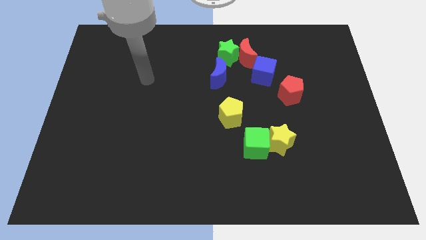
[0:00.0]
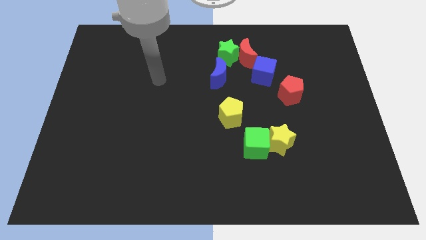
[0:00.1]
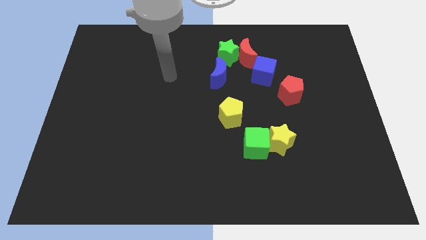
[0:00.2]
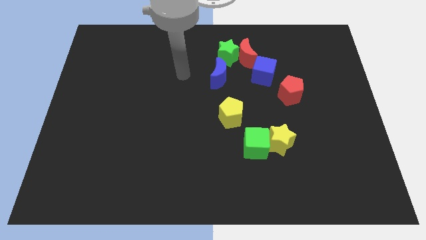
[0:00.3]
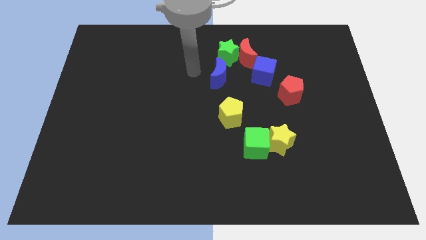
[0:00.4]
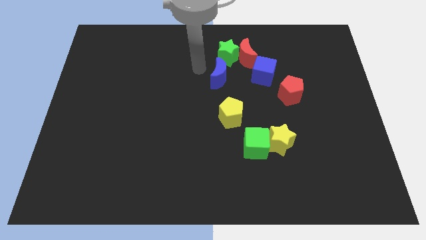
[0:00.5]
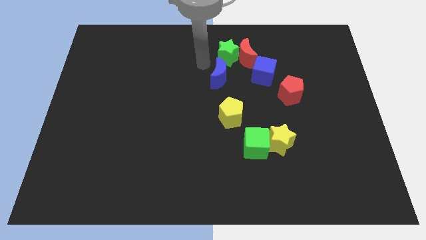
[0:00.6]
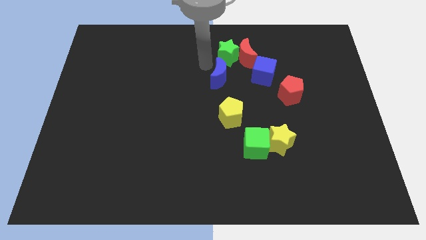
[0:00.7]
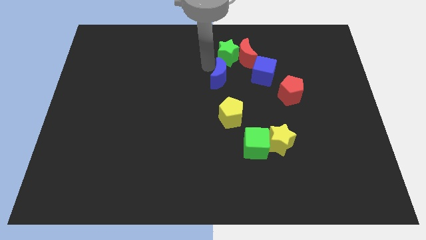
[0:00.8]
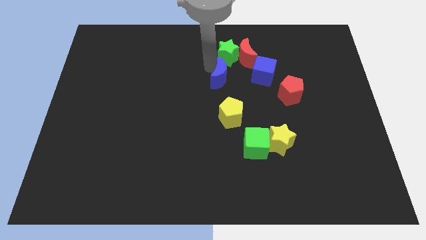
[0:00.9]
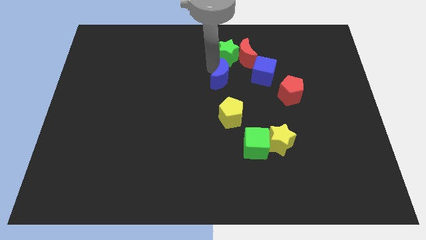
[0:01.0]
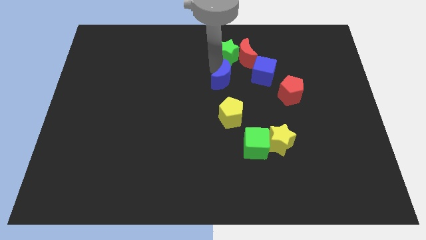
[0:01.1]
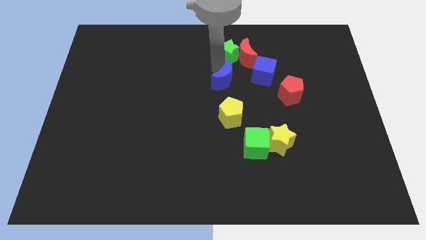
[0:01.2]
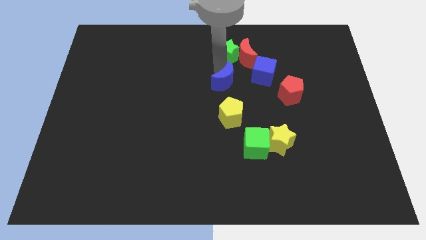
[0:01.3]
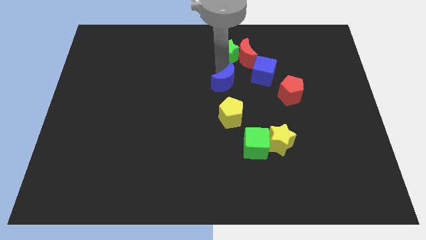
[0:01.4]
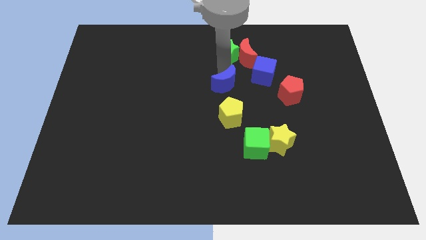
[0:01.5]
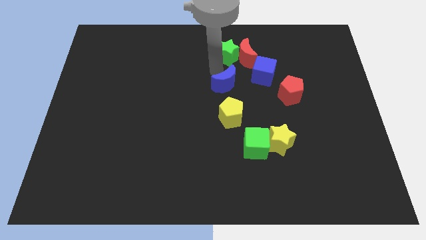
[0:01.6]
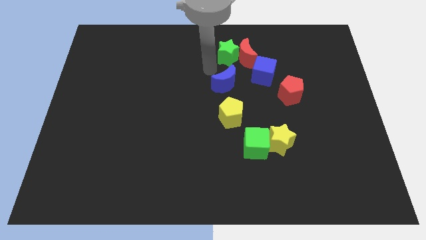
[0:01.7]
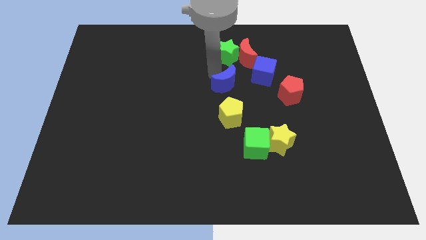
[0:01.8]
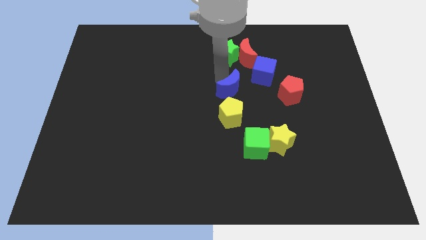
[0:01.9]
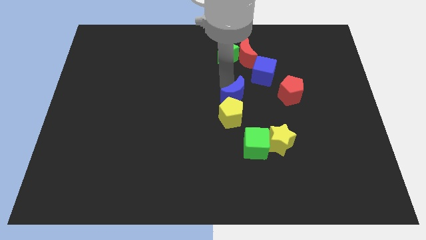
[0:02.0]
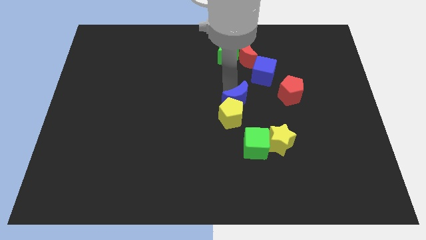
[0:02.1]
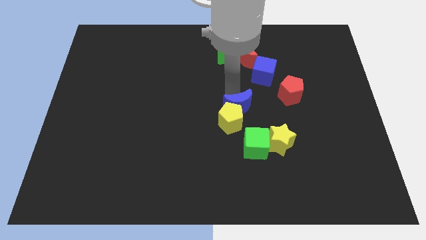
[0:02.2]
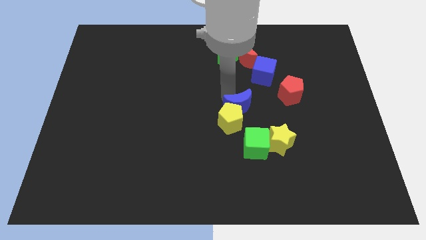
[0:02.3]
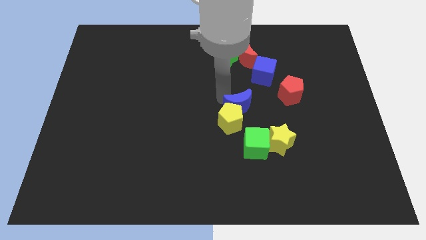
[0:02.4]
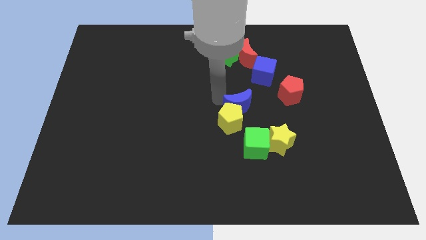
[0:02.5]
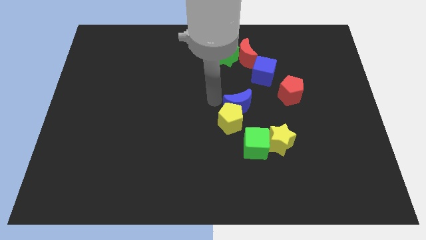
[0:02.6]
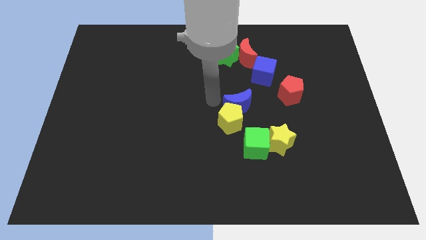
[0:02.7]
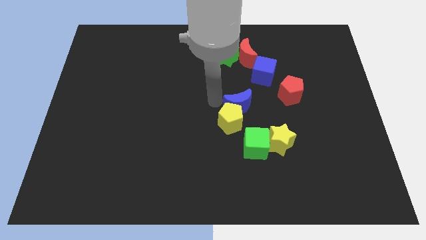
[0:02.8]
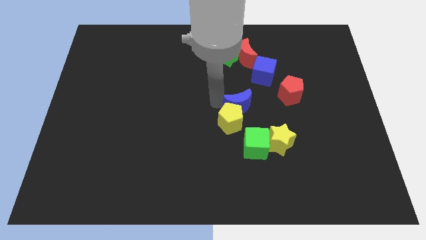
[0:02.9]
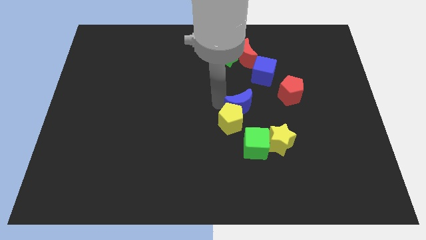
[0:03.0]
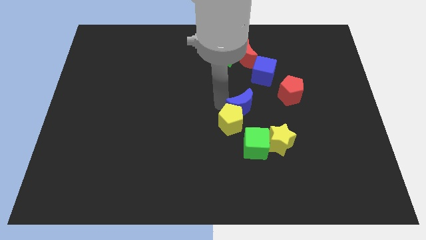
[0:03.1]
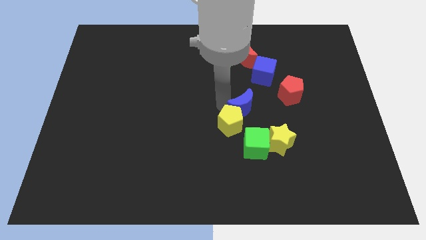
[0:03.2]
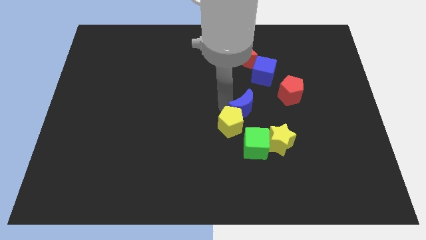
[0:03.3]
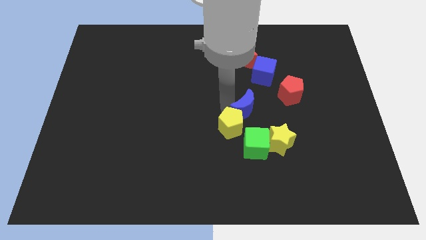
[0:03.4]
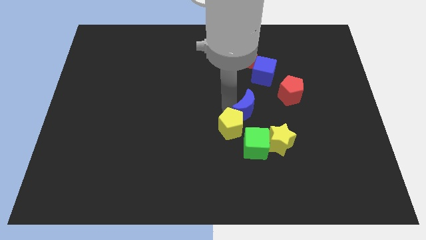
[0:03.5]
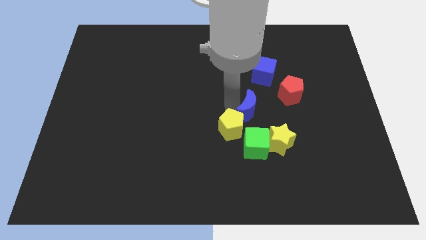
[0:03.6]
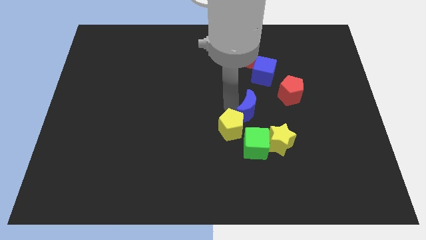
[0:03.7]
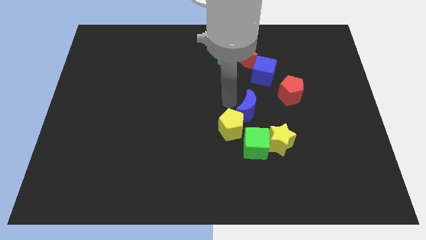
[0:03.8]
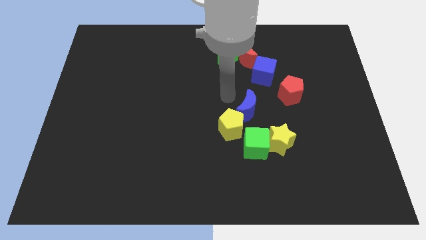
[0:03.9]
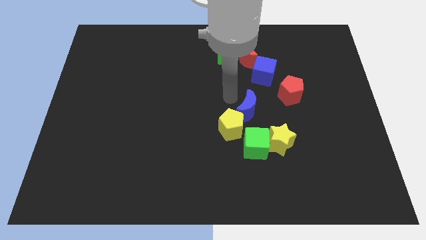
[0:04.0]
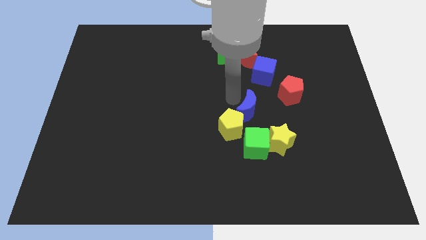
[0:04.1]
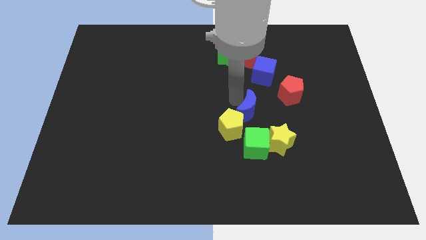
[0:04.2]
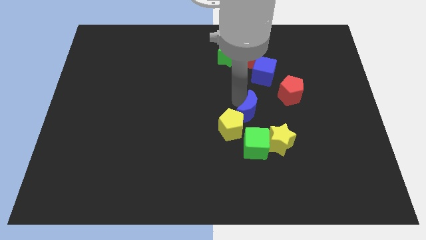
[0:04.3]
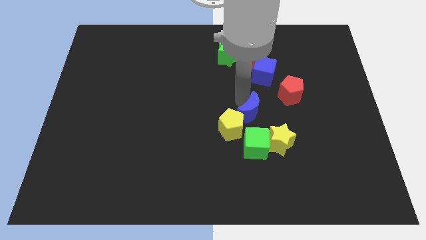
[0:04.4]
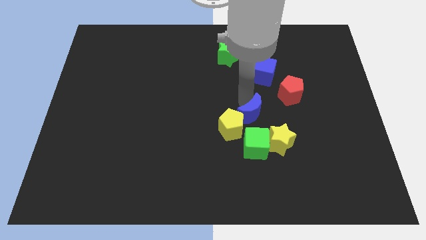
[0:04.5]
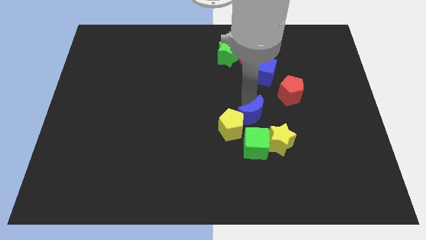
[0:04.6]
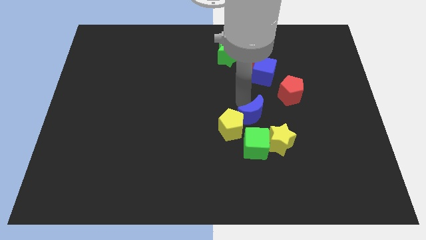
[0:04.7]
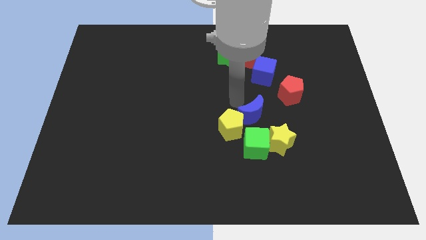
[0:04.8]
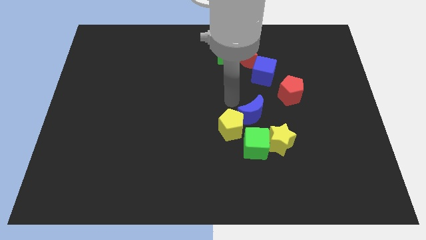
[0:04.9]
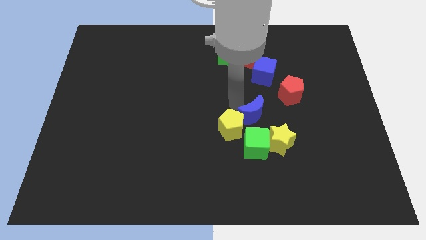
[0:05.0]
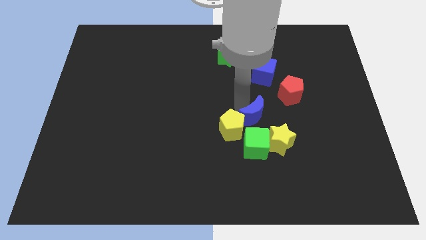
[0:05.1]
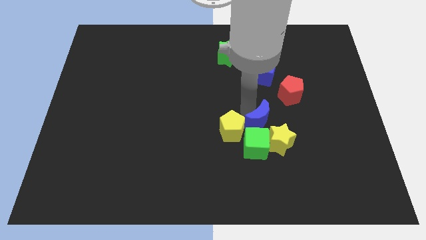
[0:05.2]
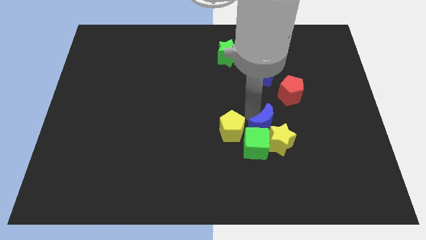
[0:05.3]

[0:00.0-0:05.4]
push the blue moon to the yellow star

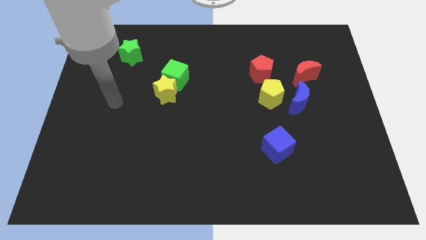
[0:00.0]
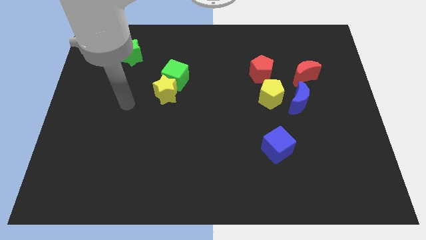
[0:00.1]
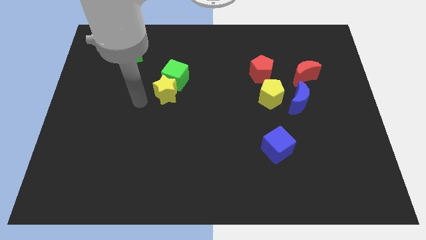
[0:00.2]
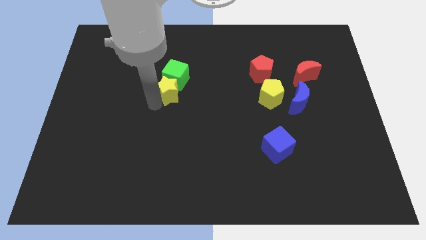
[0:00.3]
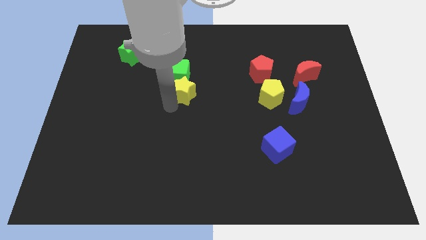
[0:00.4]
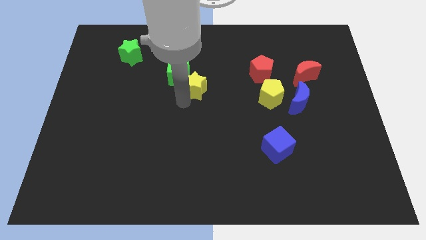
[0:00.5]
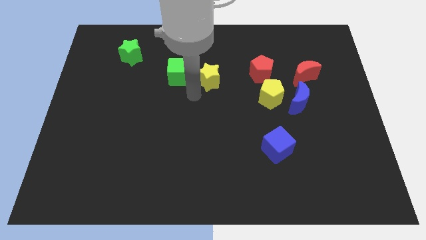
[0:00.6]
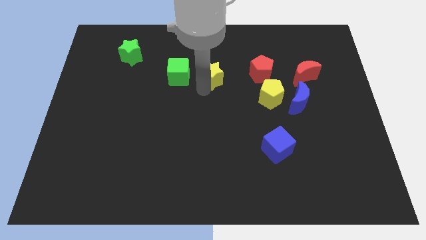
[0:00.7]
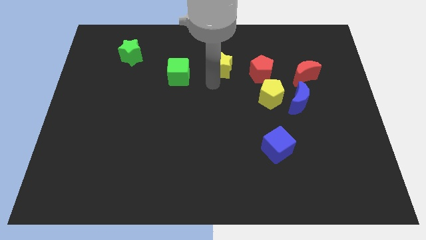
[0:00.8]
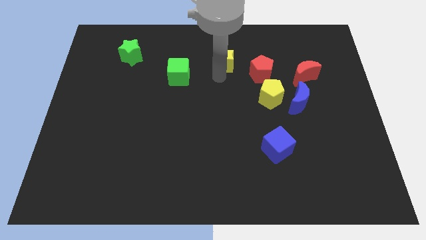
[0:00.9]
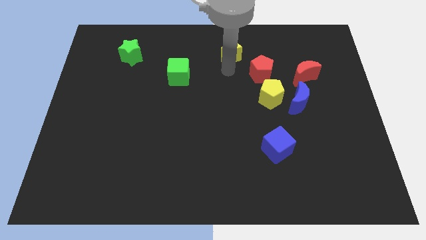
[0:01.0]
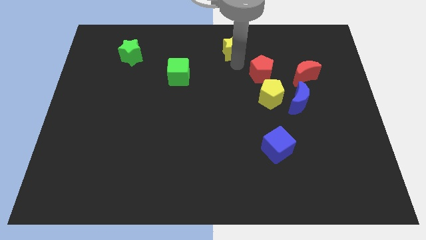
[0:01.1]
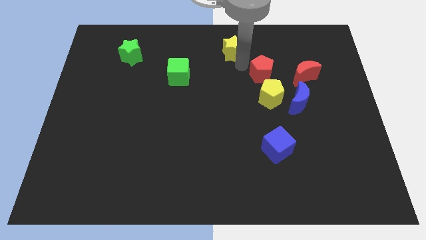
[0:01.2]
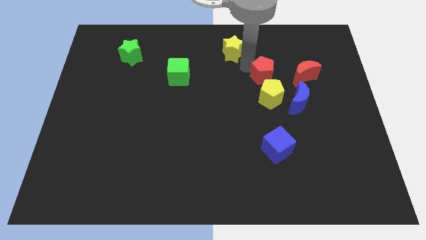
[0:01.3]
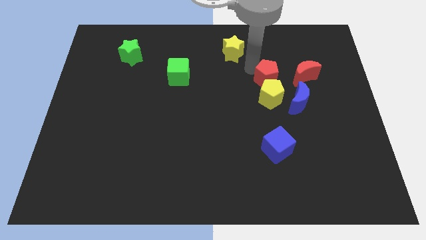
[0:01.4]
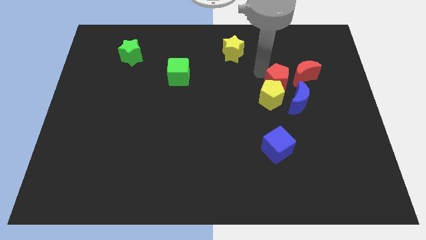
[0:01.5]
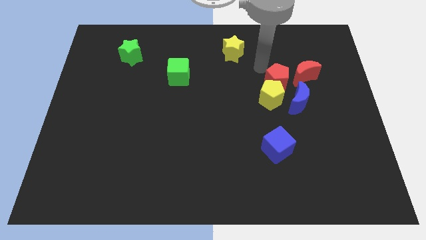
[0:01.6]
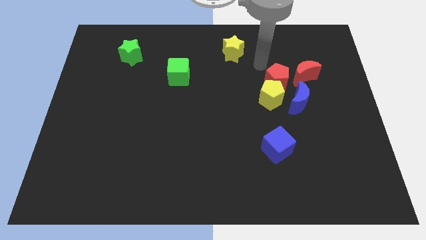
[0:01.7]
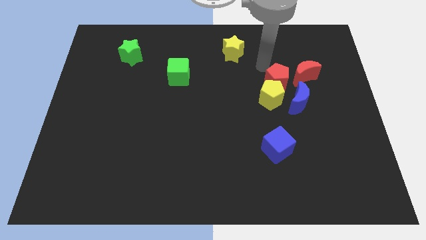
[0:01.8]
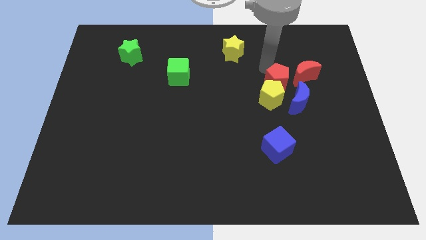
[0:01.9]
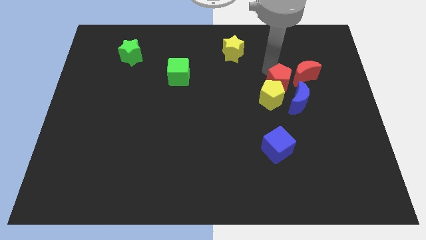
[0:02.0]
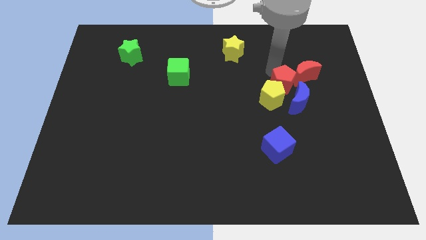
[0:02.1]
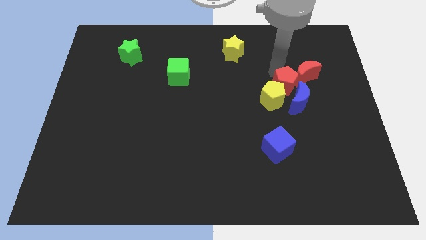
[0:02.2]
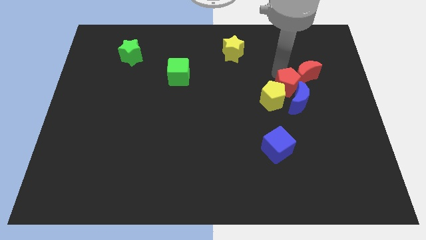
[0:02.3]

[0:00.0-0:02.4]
push the red pentagon to the blue moon

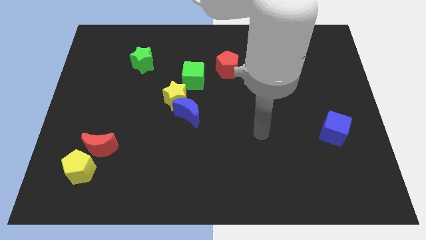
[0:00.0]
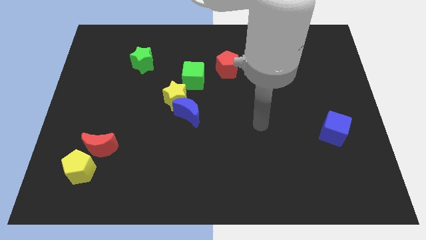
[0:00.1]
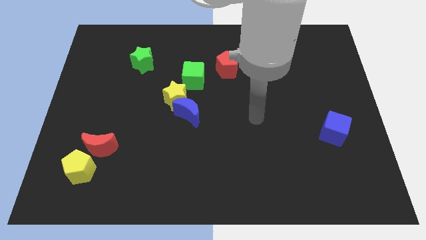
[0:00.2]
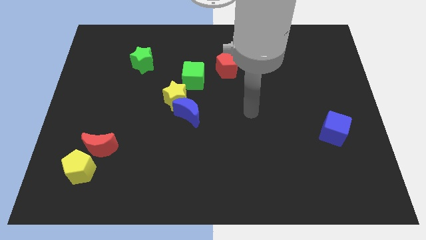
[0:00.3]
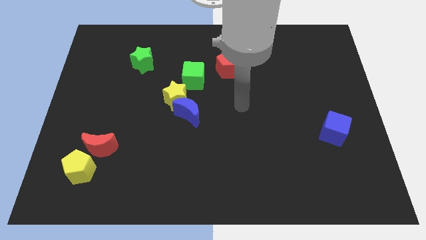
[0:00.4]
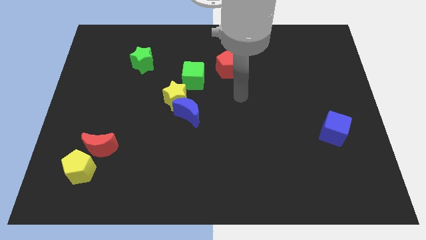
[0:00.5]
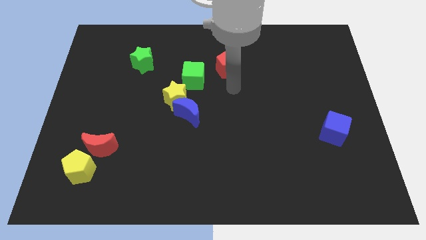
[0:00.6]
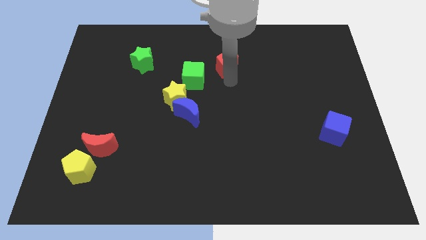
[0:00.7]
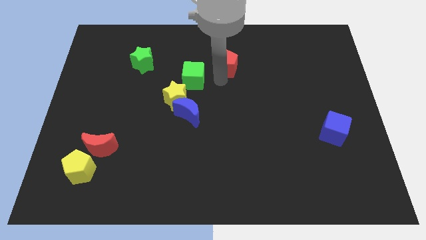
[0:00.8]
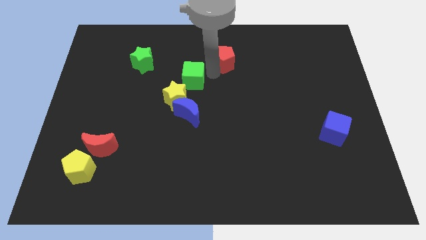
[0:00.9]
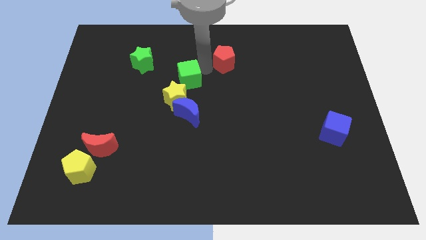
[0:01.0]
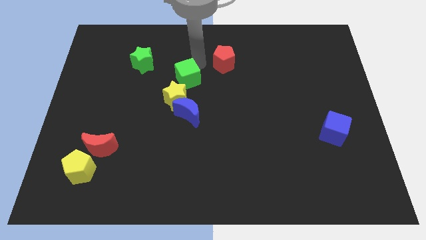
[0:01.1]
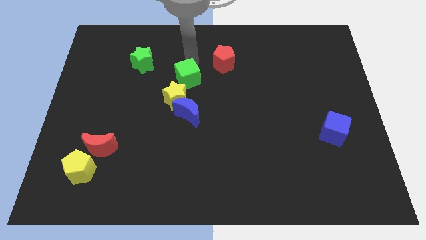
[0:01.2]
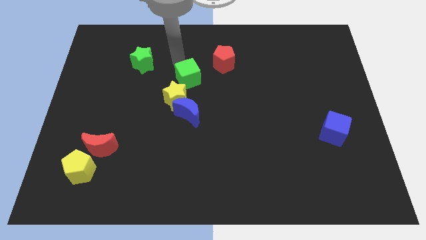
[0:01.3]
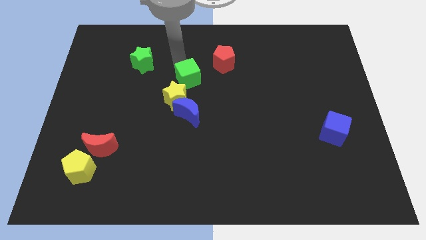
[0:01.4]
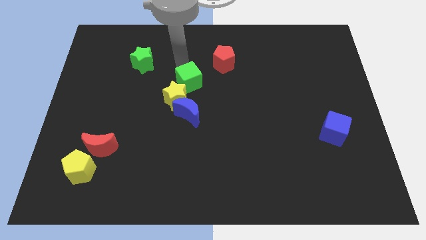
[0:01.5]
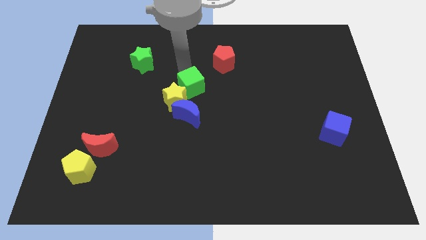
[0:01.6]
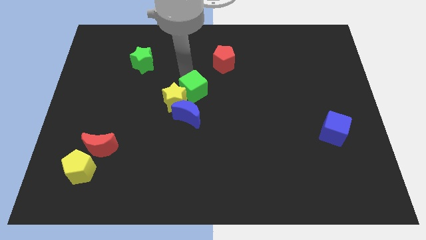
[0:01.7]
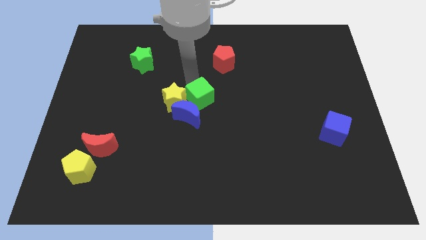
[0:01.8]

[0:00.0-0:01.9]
push the green cube close to the blue moon
